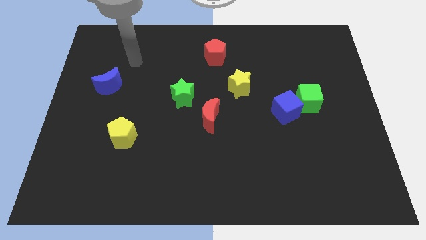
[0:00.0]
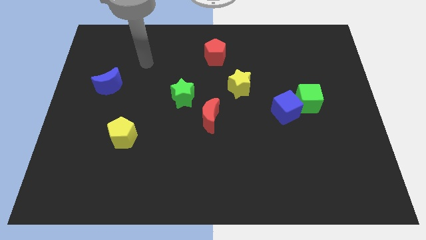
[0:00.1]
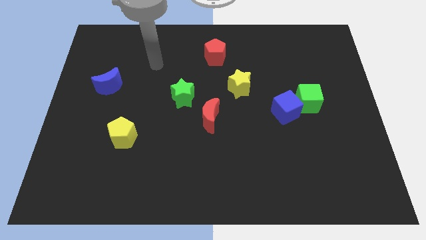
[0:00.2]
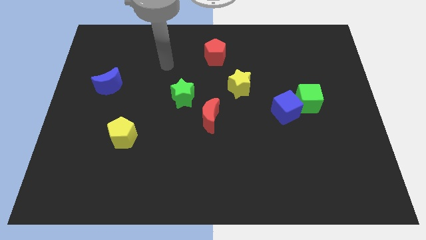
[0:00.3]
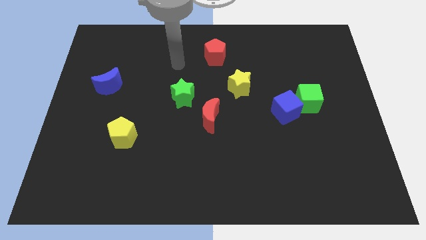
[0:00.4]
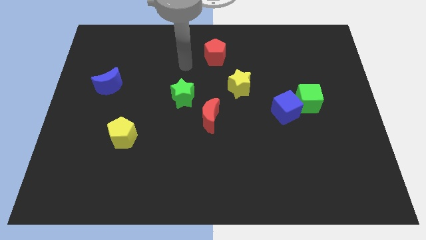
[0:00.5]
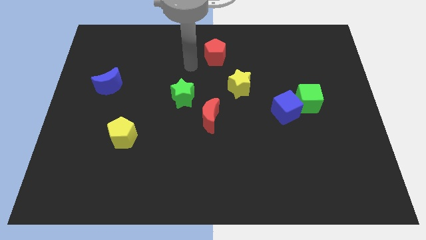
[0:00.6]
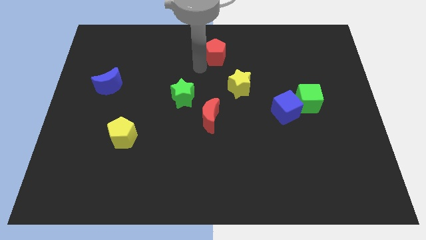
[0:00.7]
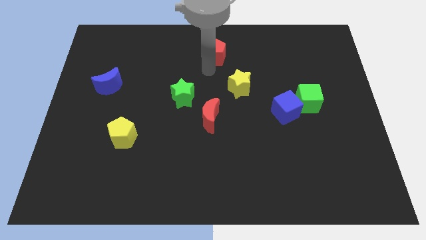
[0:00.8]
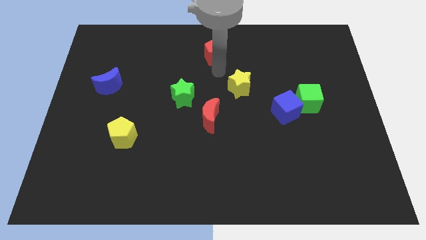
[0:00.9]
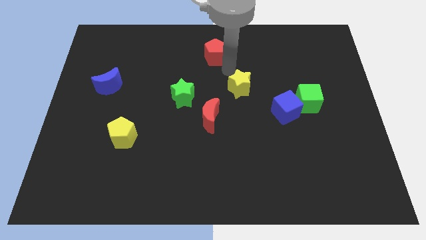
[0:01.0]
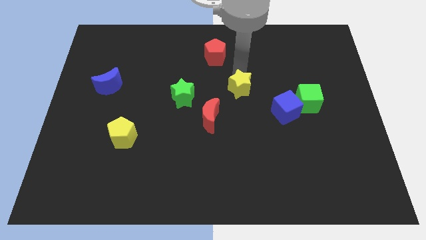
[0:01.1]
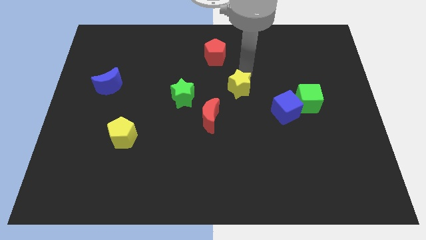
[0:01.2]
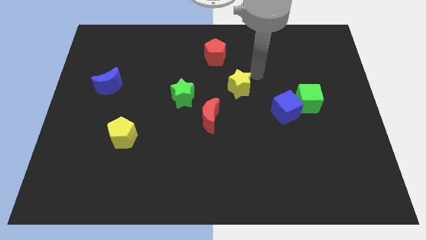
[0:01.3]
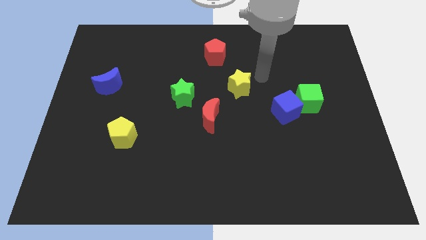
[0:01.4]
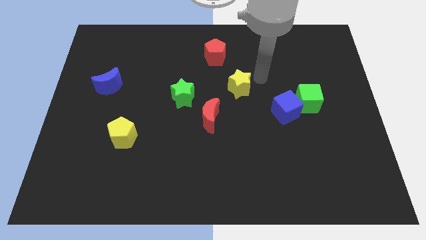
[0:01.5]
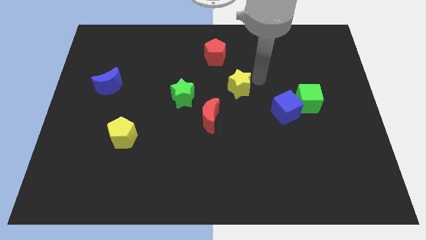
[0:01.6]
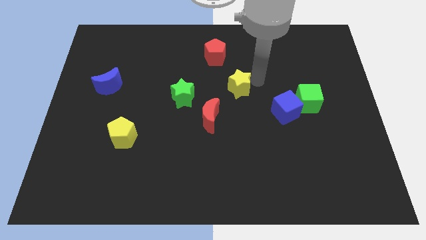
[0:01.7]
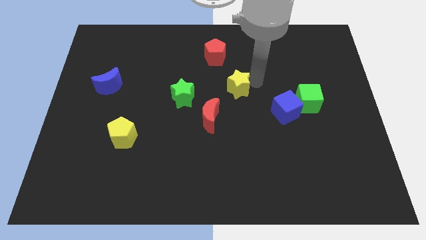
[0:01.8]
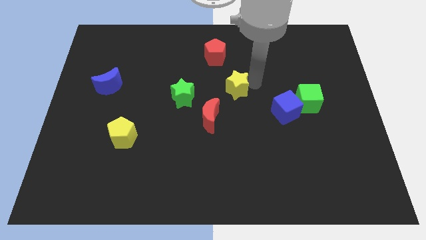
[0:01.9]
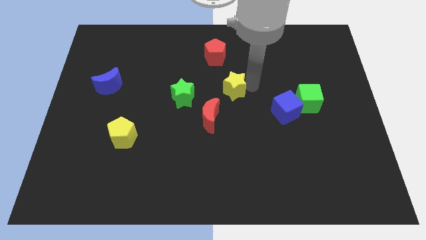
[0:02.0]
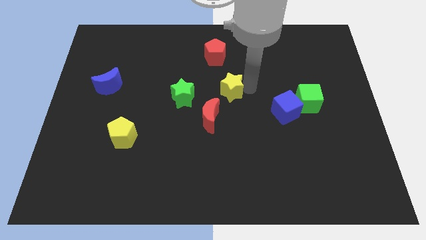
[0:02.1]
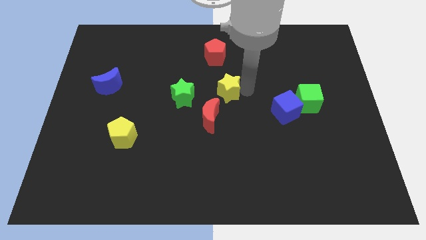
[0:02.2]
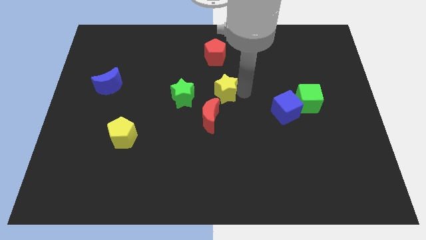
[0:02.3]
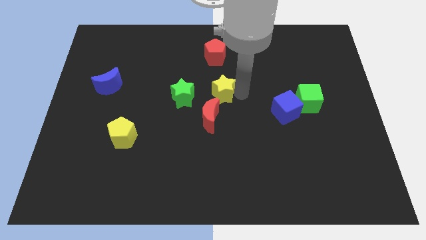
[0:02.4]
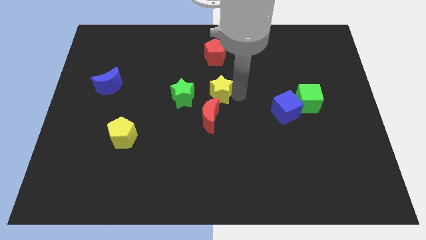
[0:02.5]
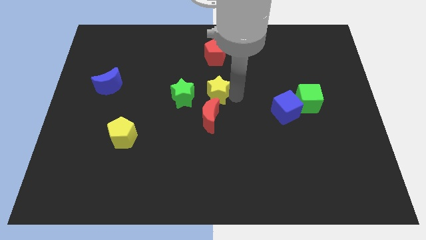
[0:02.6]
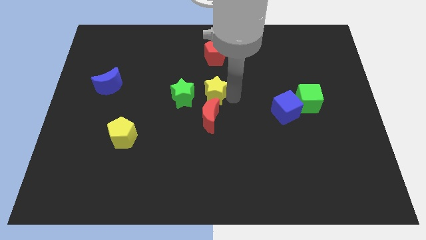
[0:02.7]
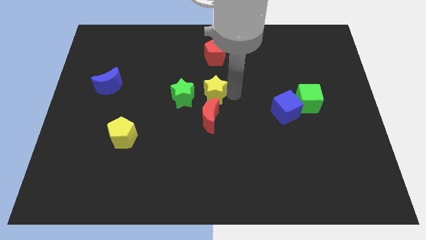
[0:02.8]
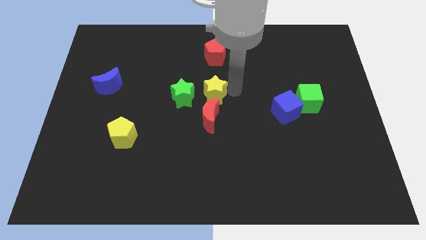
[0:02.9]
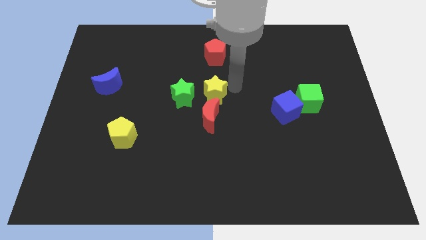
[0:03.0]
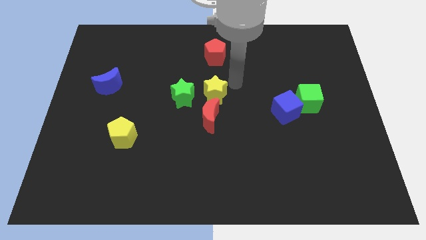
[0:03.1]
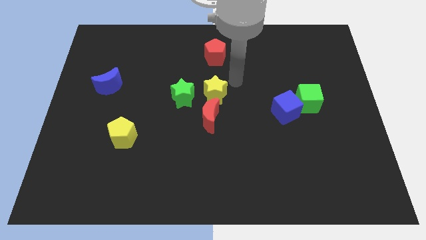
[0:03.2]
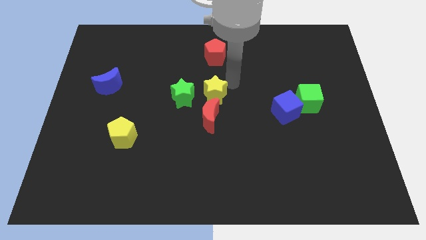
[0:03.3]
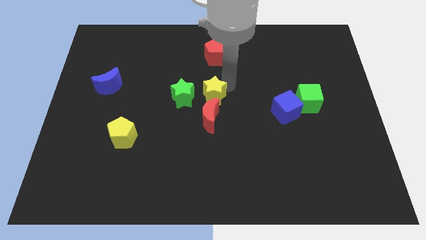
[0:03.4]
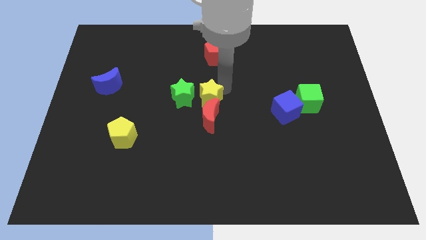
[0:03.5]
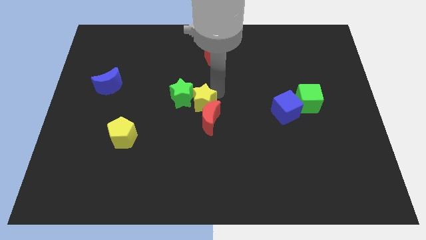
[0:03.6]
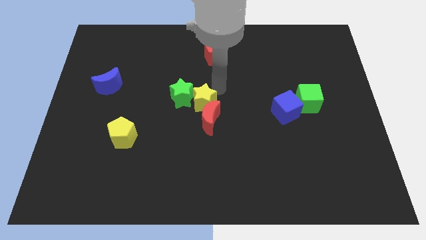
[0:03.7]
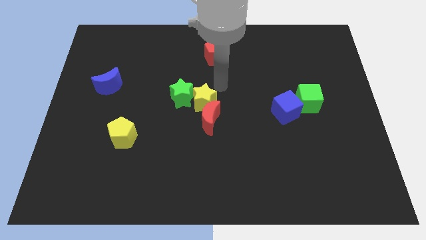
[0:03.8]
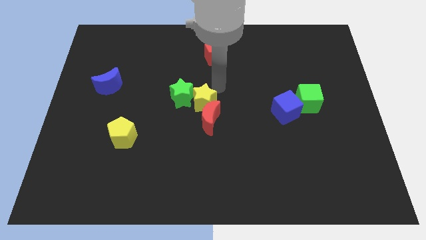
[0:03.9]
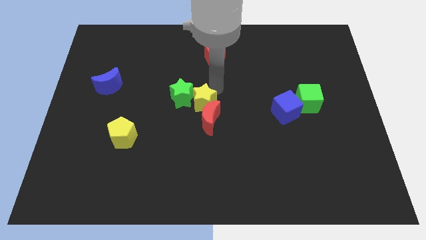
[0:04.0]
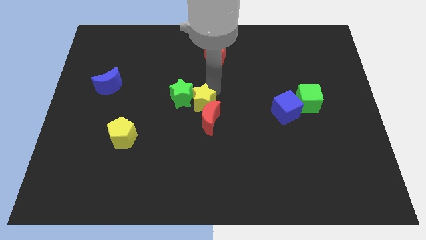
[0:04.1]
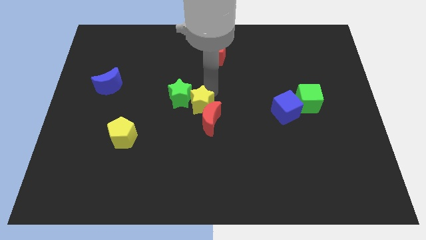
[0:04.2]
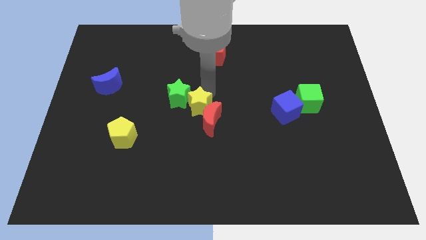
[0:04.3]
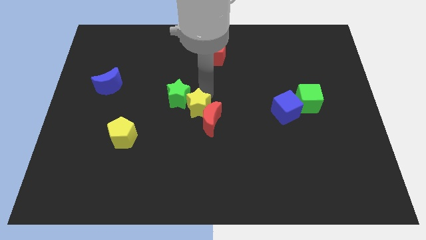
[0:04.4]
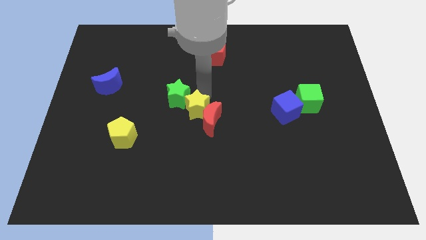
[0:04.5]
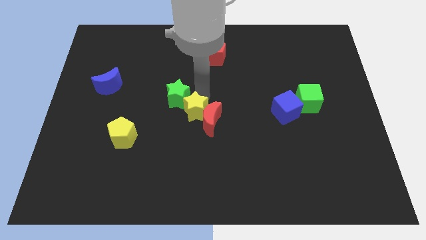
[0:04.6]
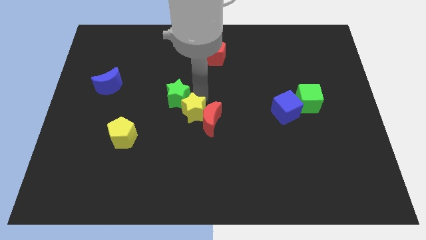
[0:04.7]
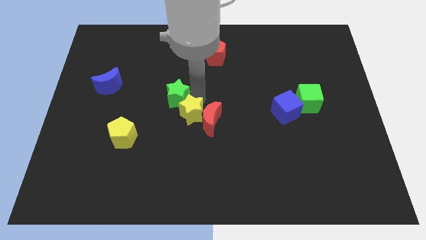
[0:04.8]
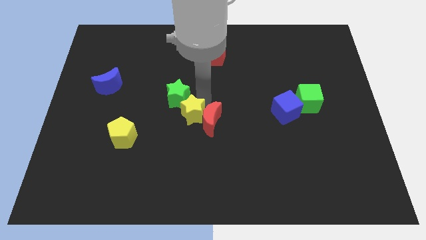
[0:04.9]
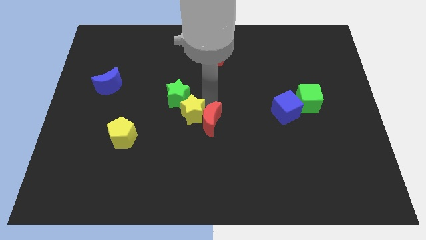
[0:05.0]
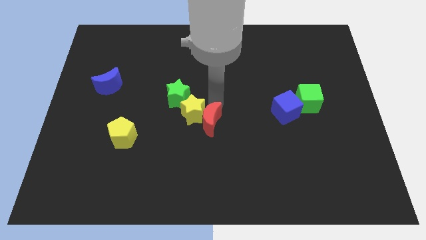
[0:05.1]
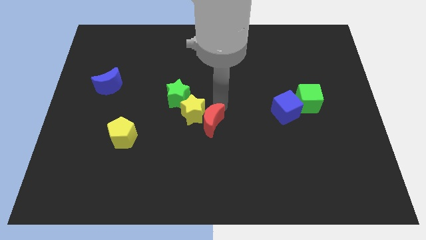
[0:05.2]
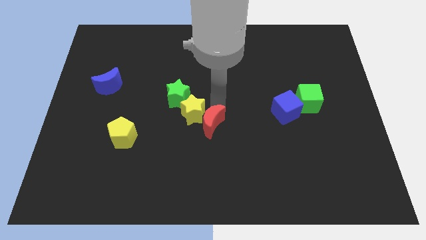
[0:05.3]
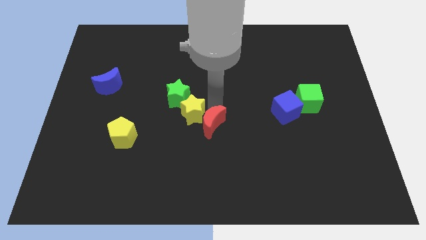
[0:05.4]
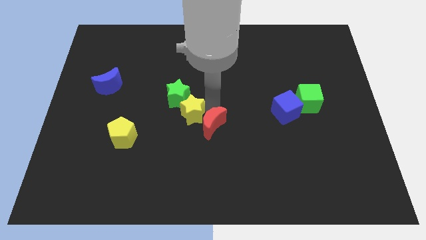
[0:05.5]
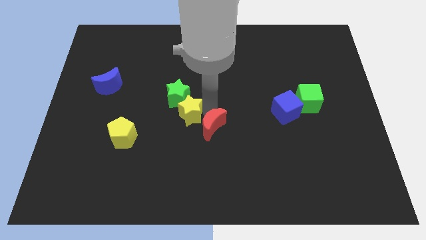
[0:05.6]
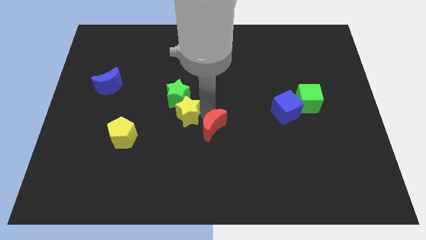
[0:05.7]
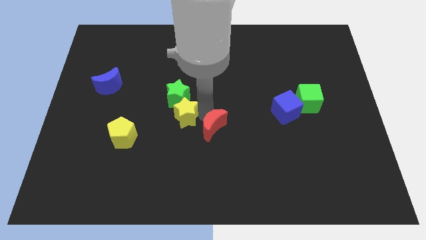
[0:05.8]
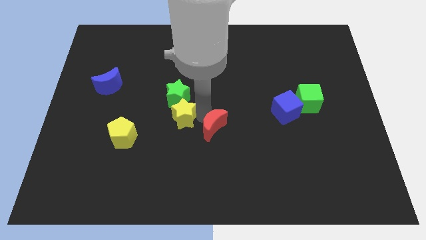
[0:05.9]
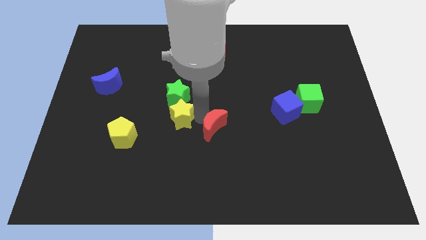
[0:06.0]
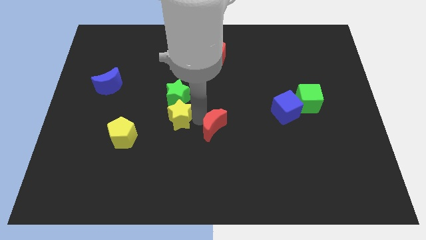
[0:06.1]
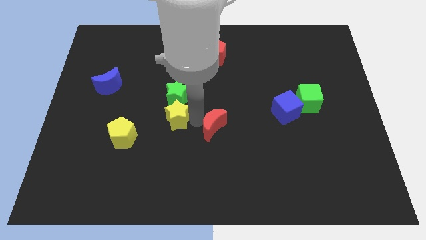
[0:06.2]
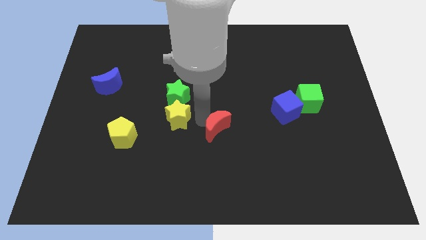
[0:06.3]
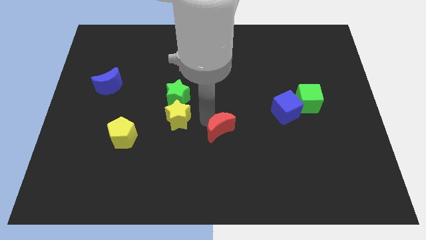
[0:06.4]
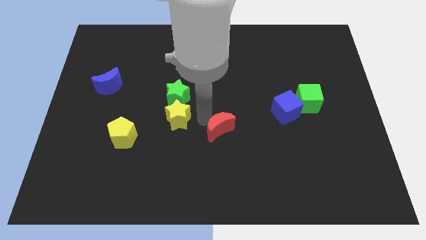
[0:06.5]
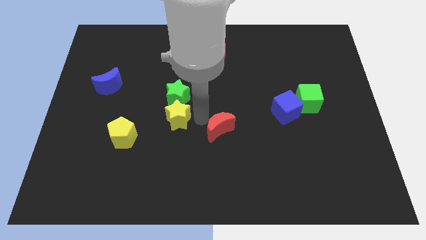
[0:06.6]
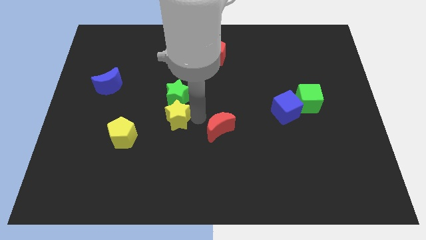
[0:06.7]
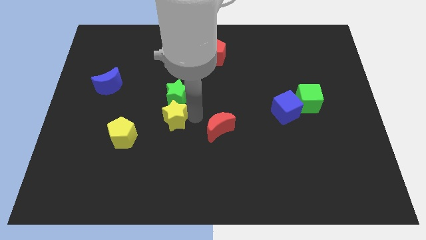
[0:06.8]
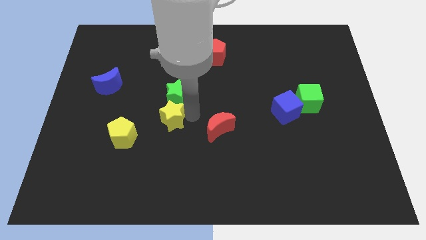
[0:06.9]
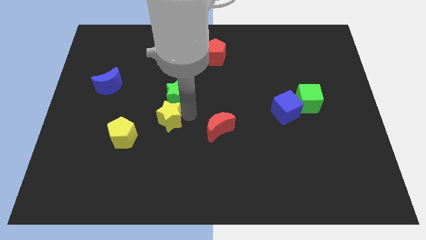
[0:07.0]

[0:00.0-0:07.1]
slide the yellow star to the top right side of the yellow pentagon
